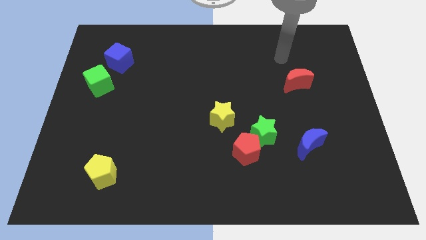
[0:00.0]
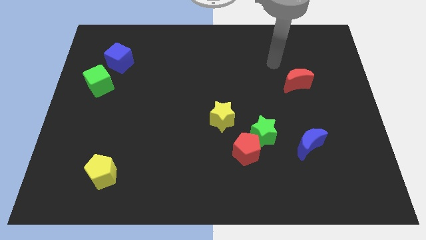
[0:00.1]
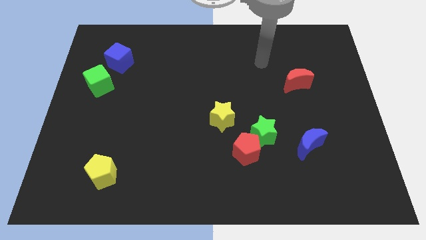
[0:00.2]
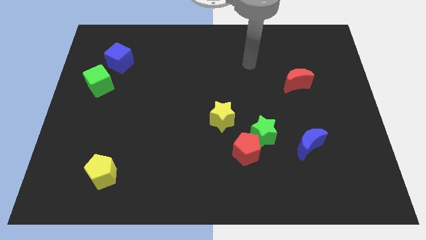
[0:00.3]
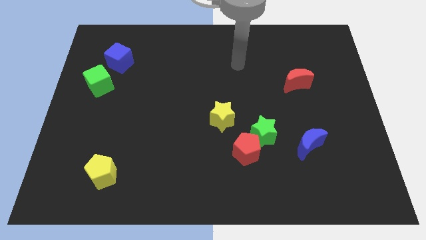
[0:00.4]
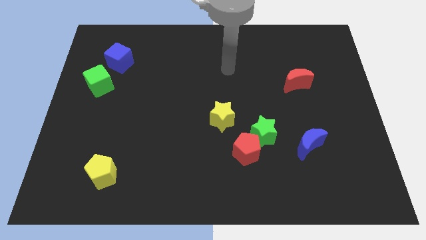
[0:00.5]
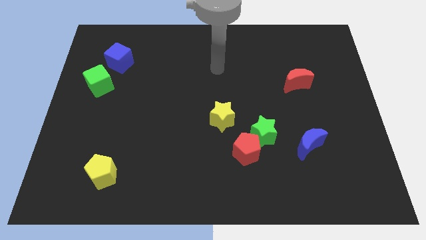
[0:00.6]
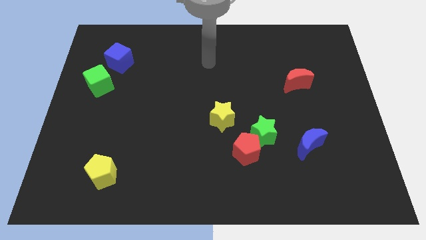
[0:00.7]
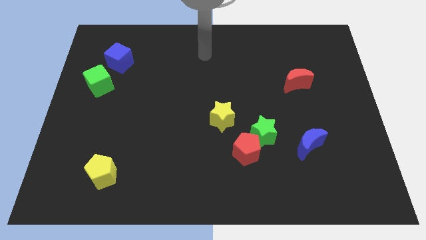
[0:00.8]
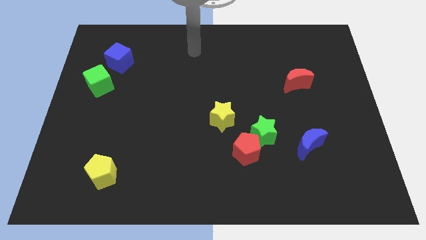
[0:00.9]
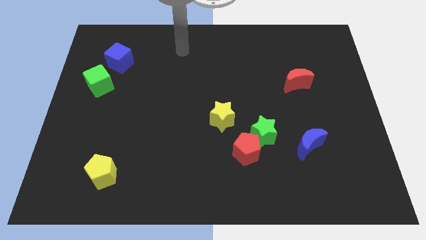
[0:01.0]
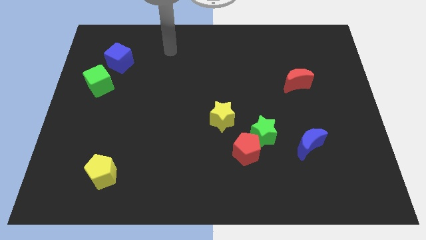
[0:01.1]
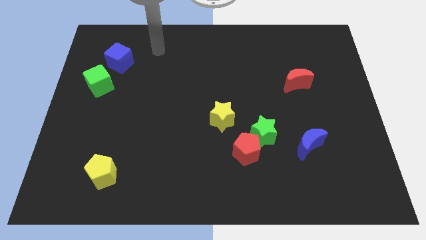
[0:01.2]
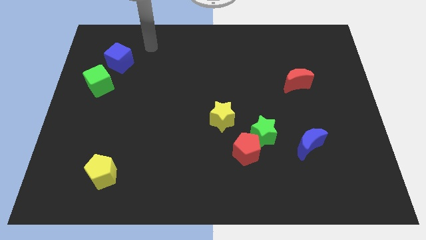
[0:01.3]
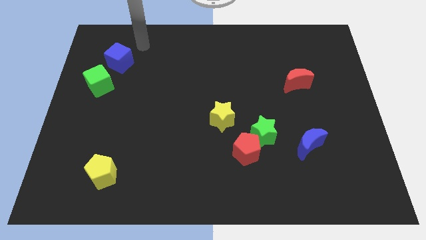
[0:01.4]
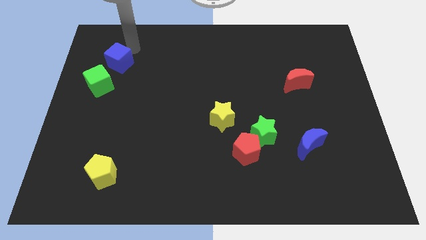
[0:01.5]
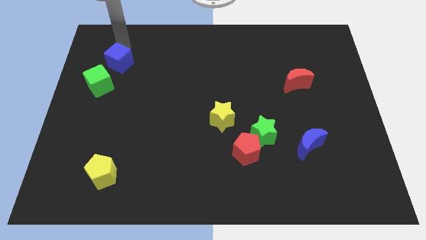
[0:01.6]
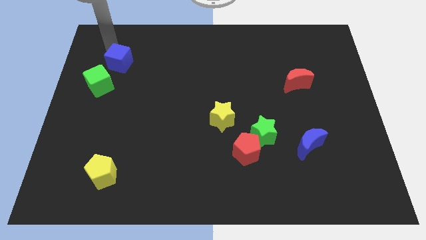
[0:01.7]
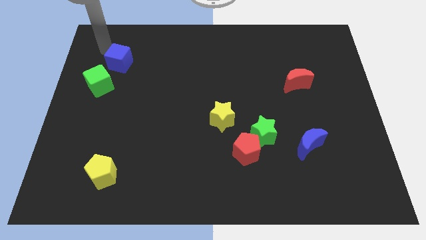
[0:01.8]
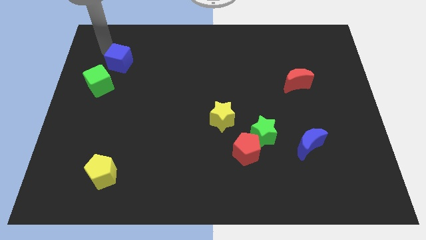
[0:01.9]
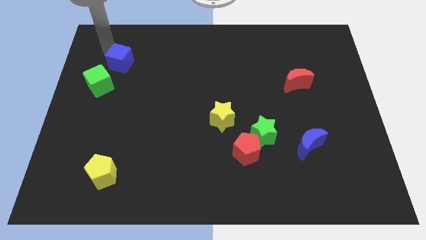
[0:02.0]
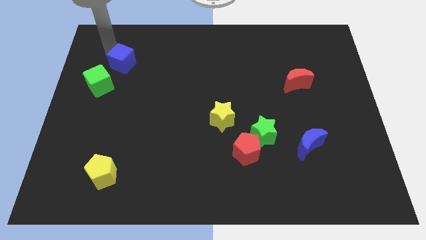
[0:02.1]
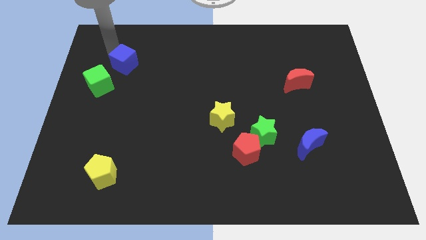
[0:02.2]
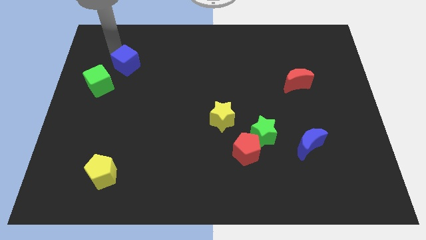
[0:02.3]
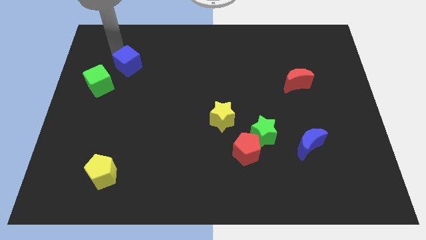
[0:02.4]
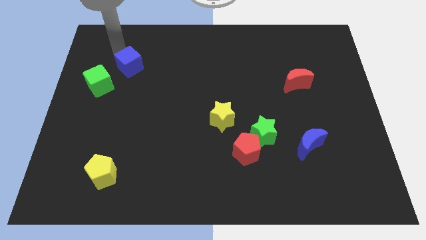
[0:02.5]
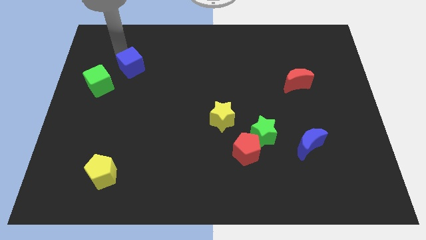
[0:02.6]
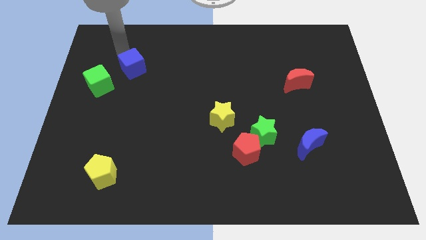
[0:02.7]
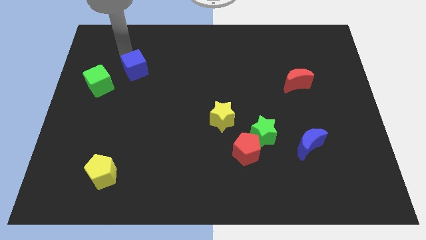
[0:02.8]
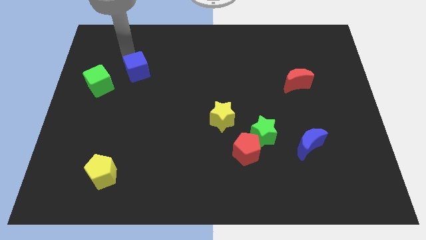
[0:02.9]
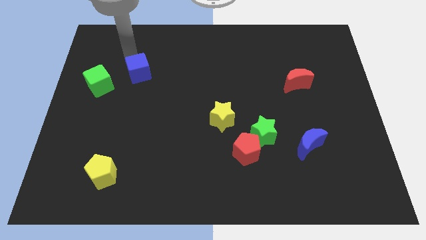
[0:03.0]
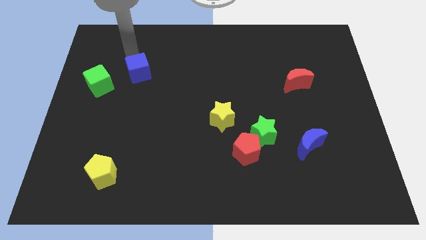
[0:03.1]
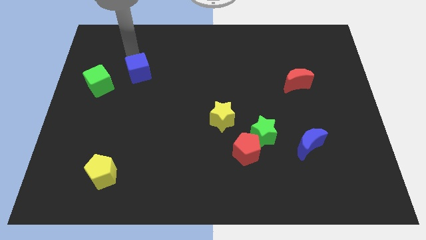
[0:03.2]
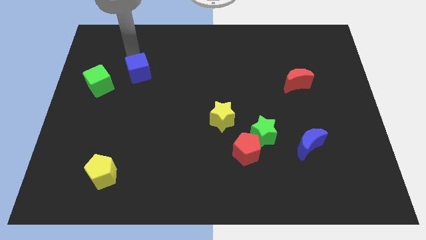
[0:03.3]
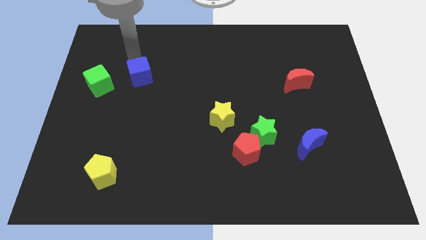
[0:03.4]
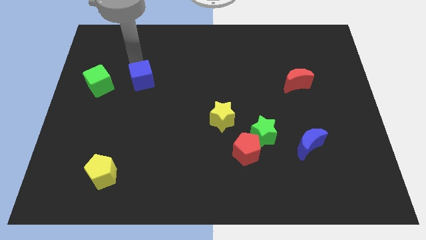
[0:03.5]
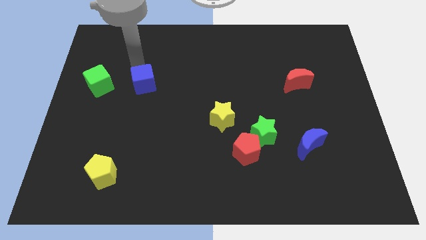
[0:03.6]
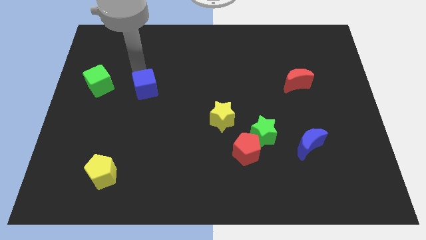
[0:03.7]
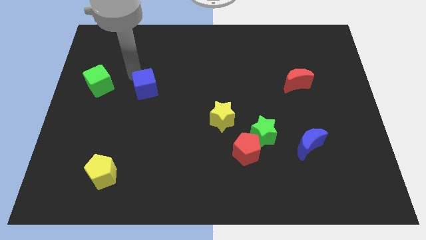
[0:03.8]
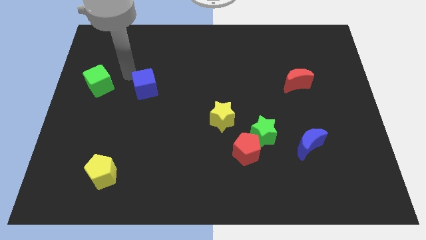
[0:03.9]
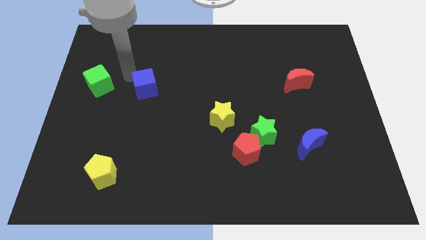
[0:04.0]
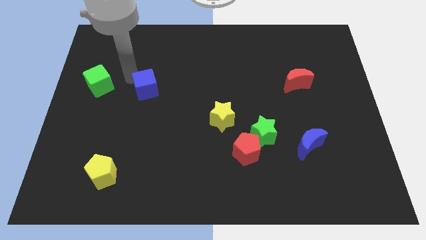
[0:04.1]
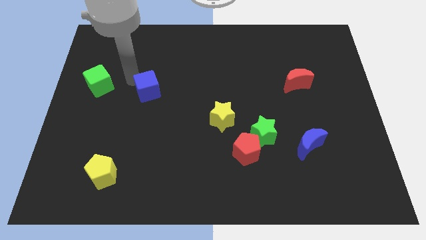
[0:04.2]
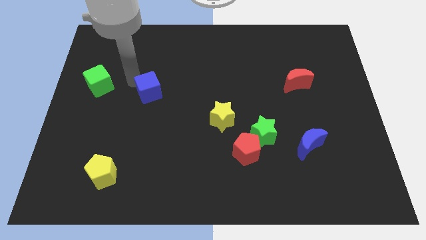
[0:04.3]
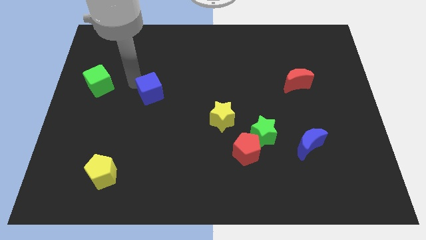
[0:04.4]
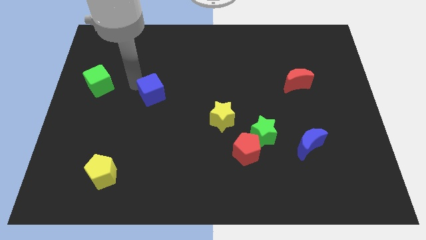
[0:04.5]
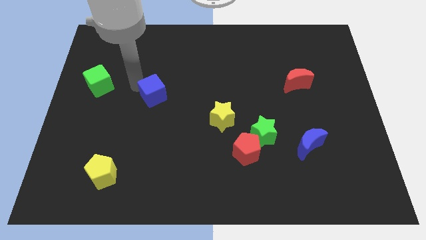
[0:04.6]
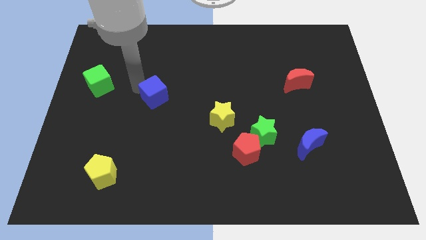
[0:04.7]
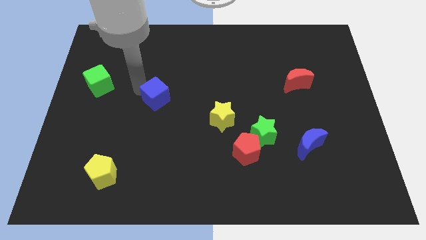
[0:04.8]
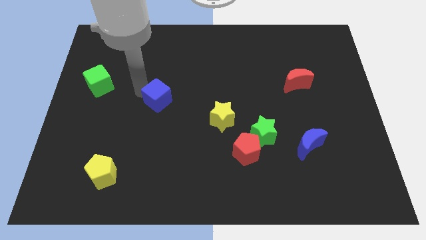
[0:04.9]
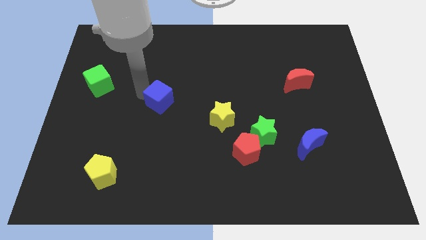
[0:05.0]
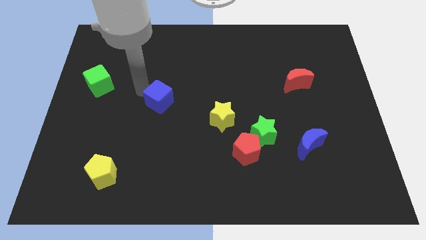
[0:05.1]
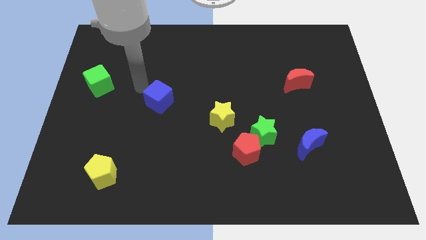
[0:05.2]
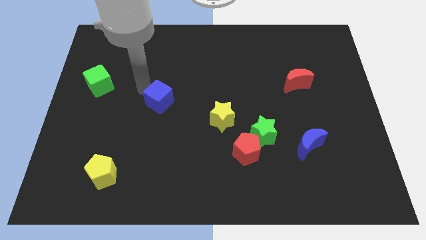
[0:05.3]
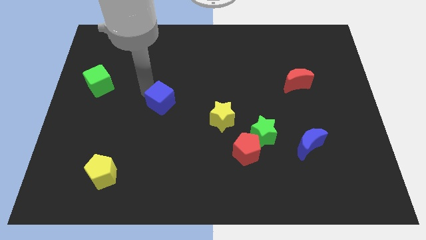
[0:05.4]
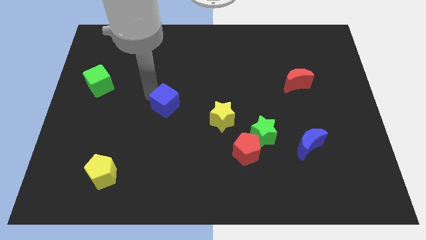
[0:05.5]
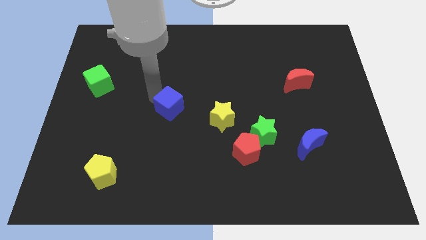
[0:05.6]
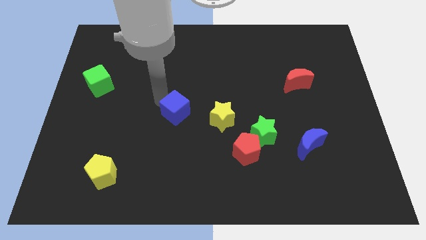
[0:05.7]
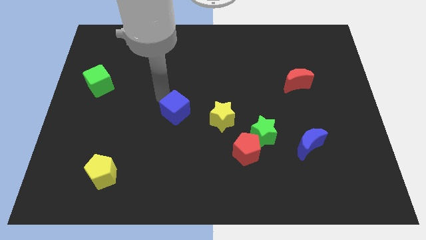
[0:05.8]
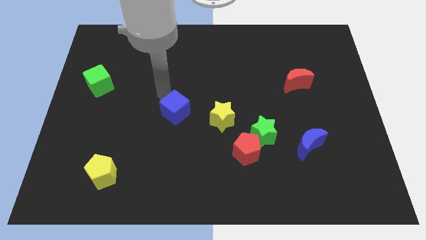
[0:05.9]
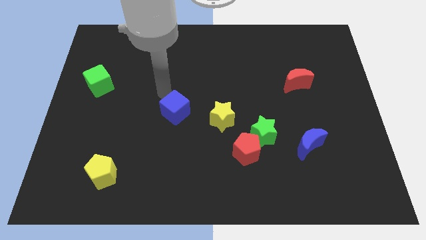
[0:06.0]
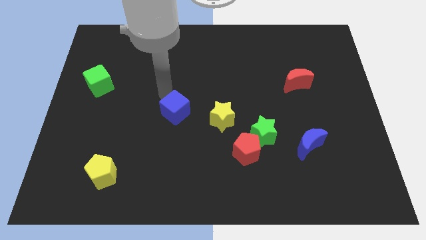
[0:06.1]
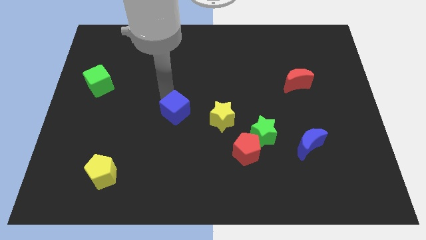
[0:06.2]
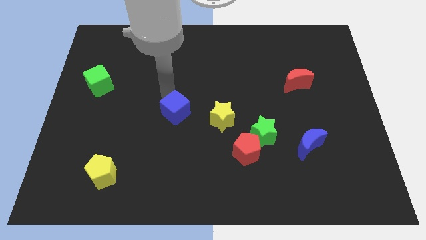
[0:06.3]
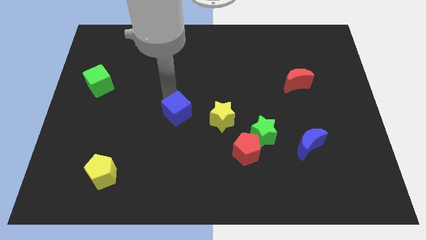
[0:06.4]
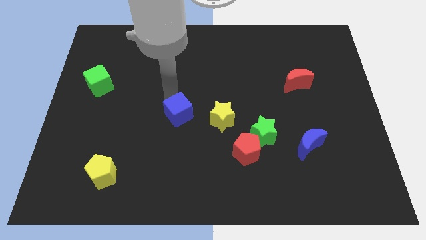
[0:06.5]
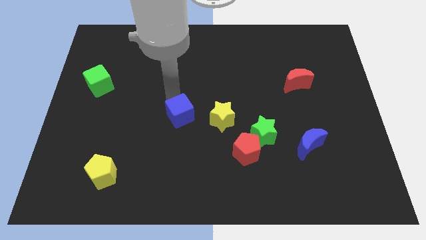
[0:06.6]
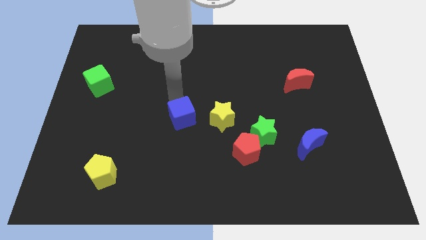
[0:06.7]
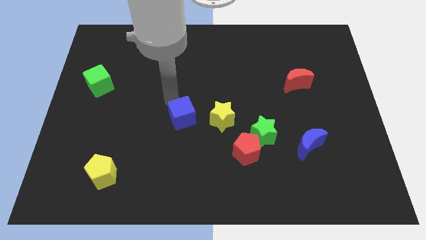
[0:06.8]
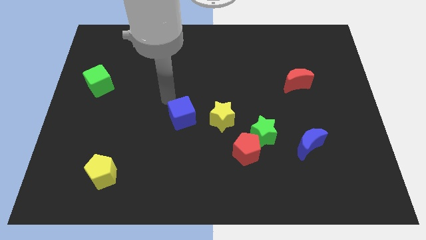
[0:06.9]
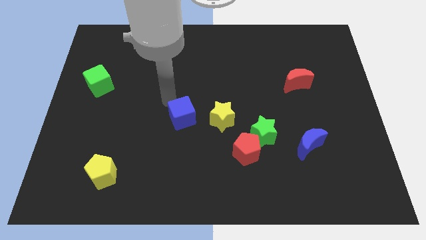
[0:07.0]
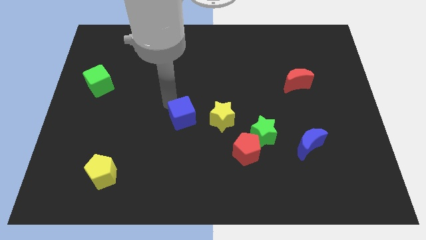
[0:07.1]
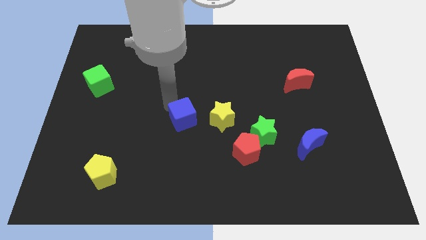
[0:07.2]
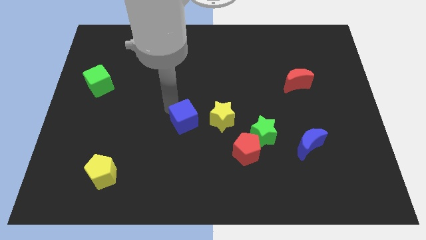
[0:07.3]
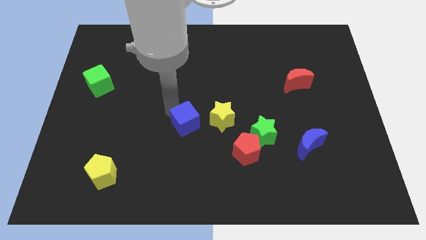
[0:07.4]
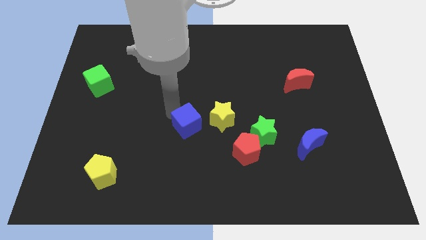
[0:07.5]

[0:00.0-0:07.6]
move the blue cube to the bottom left side of the yellow star
